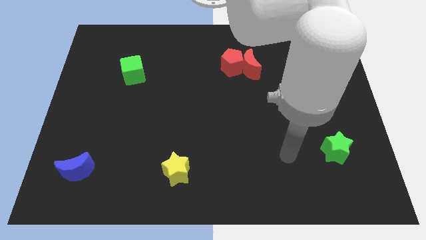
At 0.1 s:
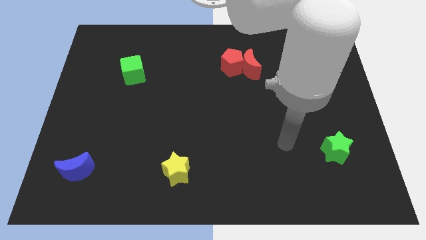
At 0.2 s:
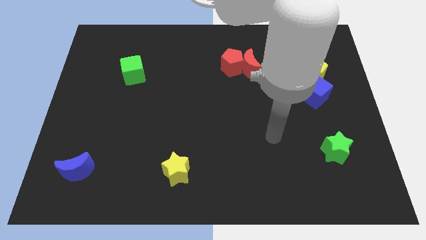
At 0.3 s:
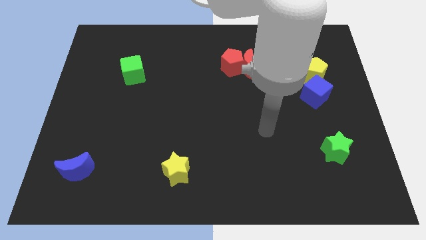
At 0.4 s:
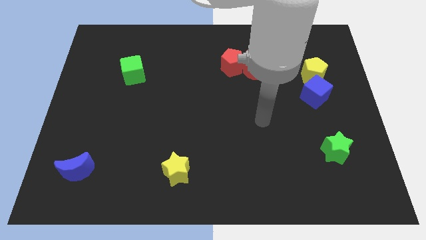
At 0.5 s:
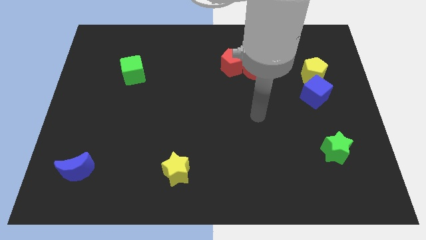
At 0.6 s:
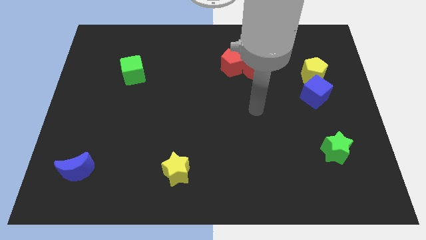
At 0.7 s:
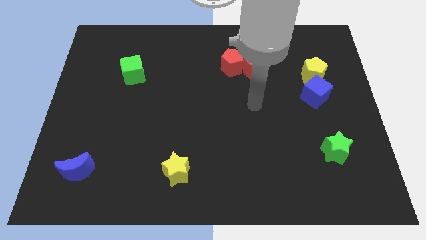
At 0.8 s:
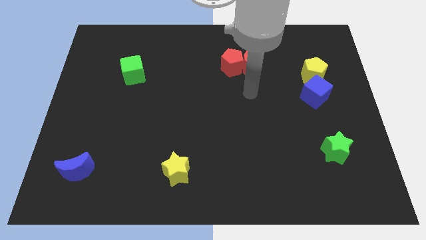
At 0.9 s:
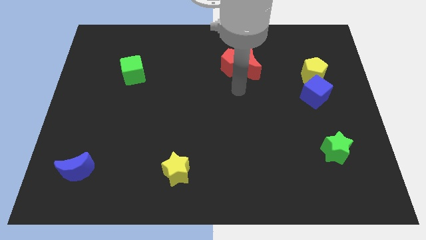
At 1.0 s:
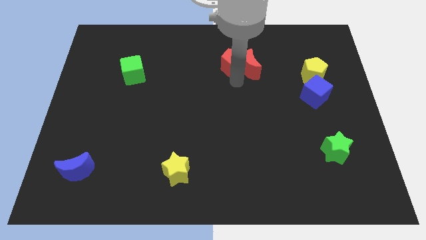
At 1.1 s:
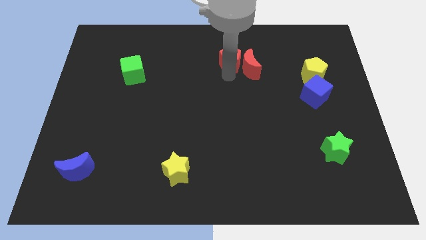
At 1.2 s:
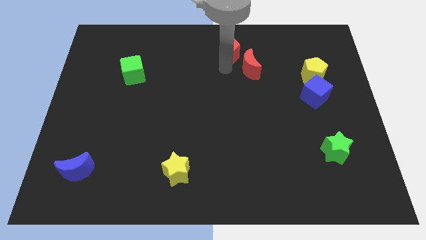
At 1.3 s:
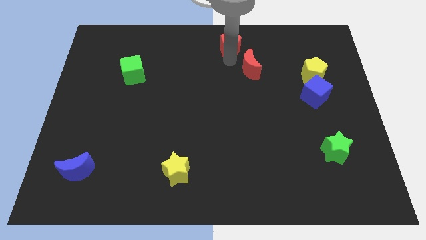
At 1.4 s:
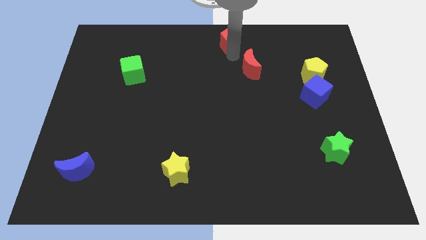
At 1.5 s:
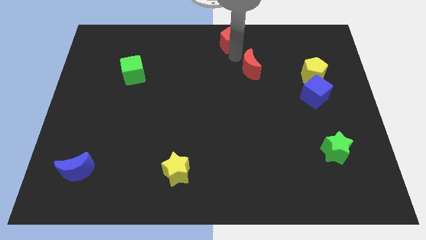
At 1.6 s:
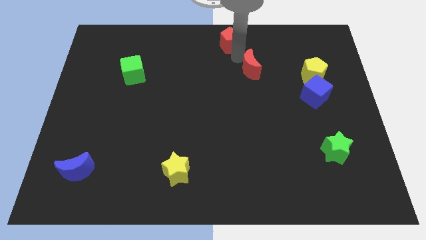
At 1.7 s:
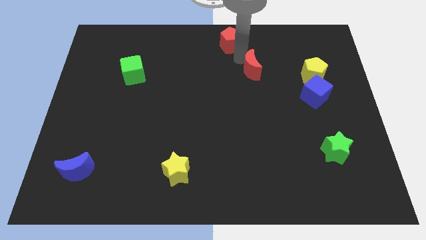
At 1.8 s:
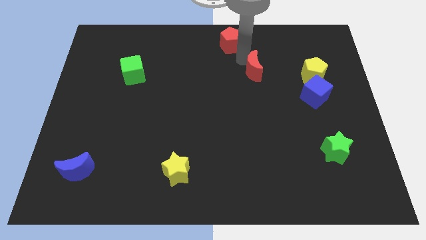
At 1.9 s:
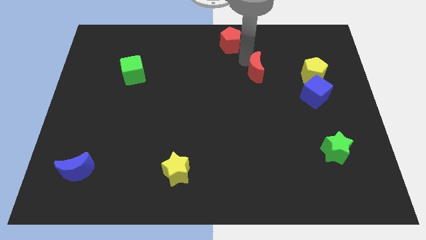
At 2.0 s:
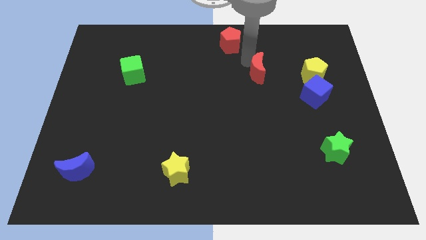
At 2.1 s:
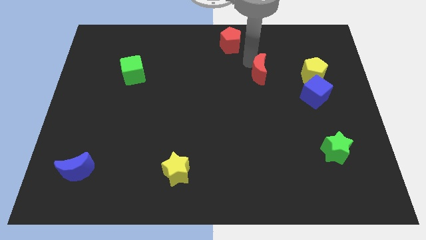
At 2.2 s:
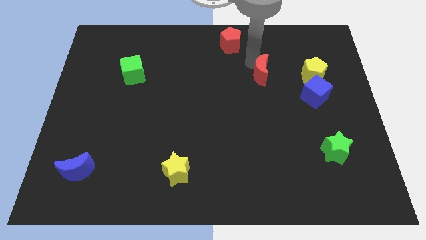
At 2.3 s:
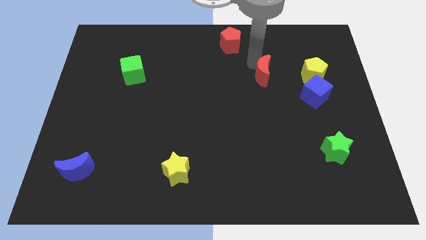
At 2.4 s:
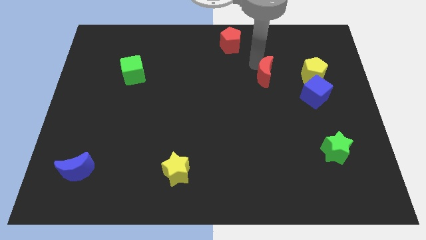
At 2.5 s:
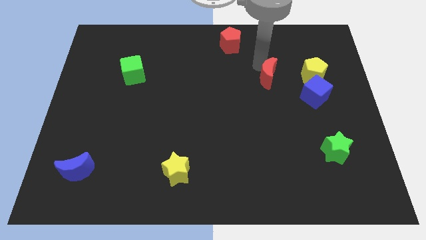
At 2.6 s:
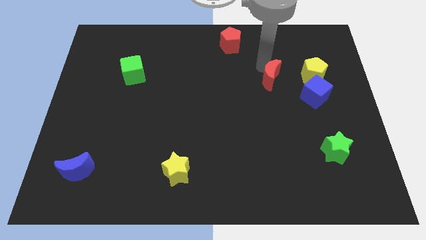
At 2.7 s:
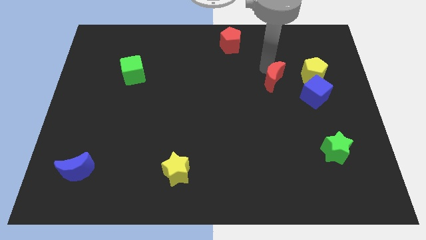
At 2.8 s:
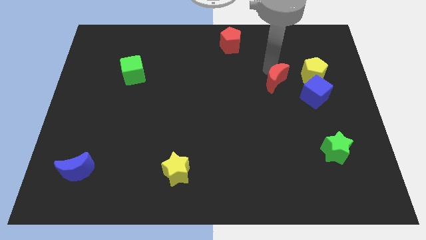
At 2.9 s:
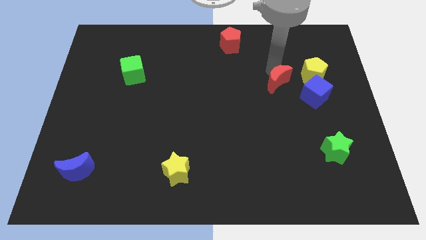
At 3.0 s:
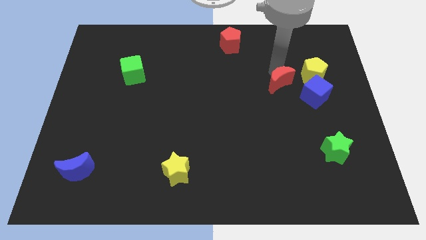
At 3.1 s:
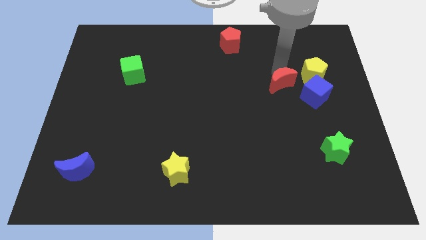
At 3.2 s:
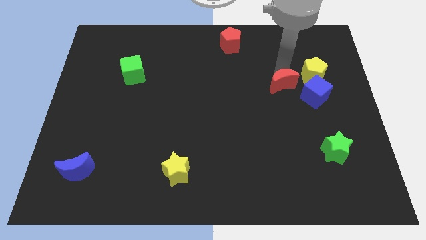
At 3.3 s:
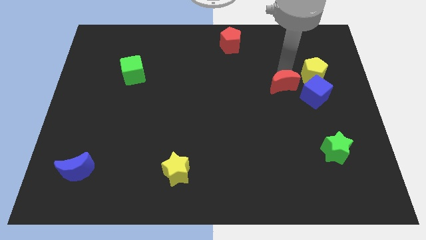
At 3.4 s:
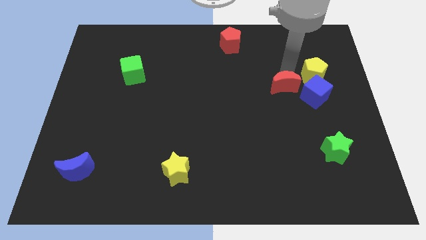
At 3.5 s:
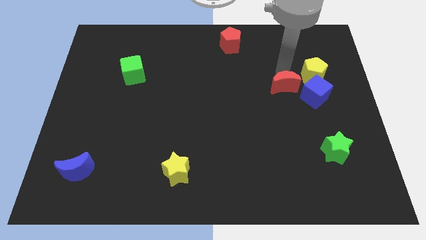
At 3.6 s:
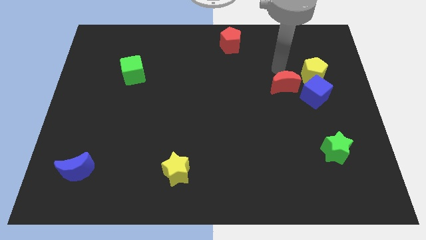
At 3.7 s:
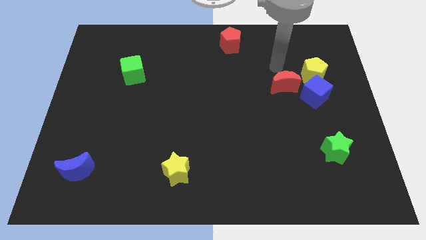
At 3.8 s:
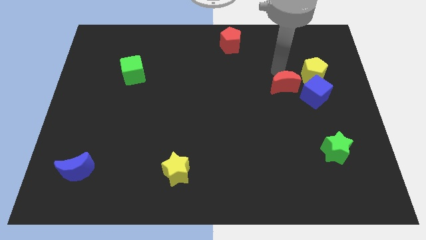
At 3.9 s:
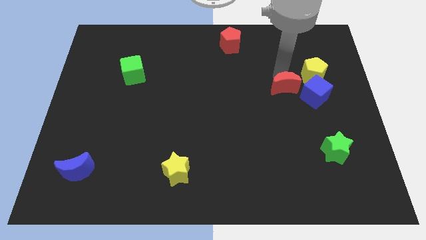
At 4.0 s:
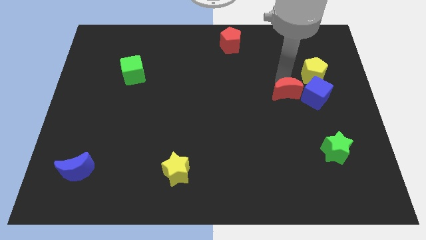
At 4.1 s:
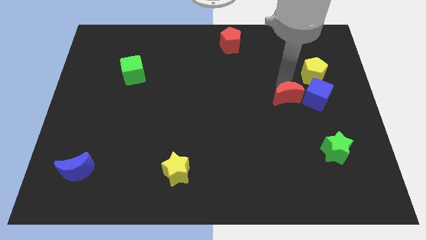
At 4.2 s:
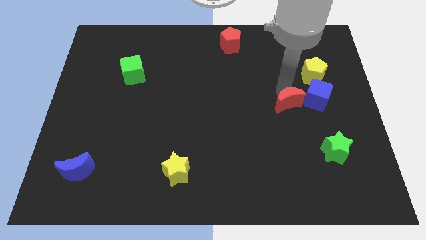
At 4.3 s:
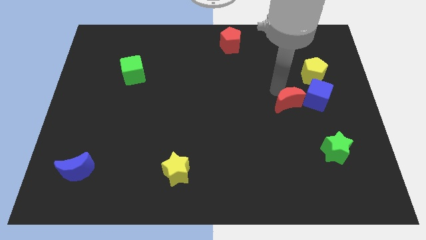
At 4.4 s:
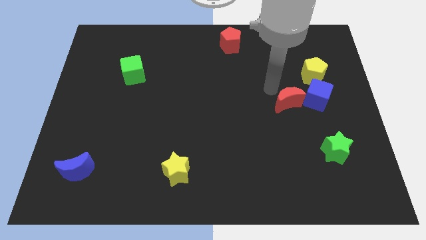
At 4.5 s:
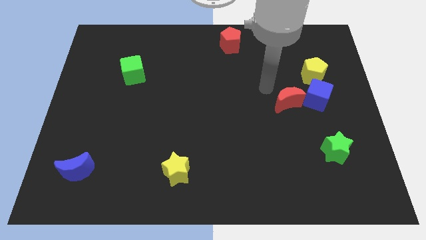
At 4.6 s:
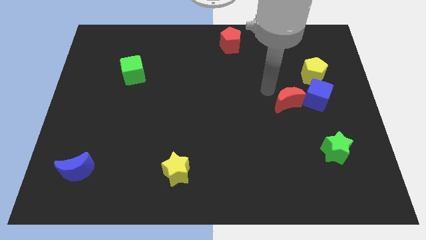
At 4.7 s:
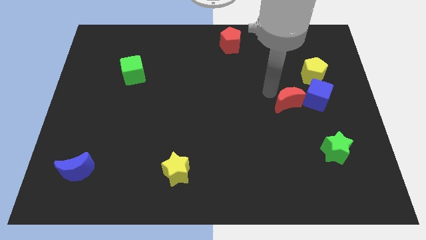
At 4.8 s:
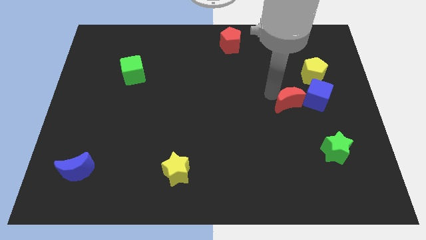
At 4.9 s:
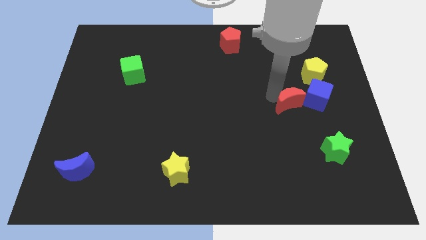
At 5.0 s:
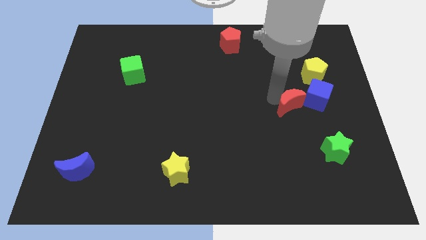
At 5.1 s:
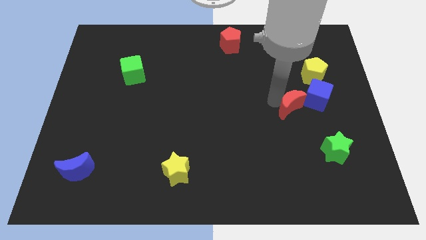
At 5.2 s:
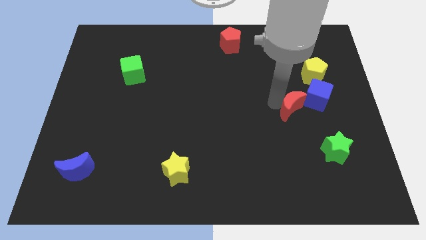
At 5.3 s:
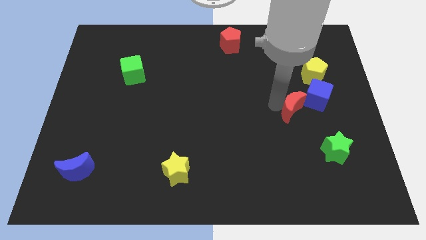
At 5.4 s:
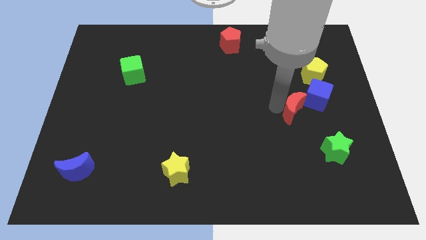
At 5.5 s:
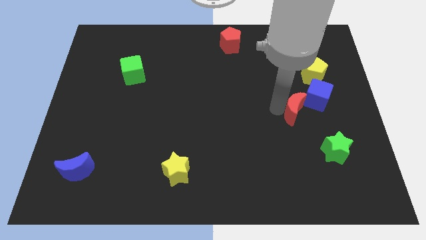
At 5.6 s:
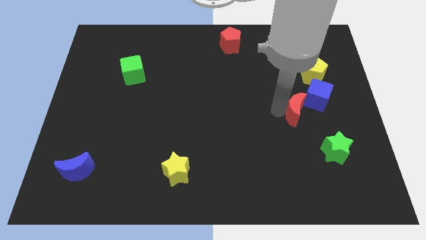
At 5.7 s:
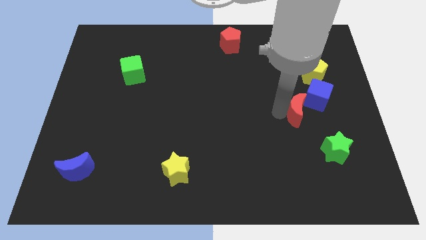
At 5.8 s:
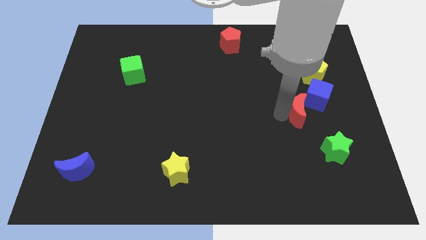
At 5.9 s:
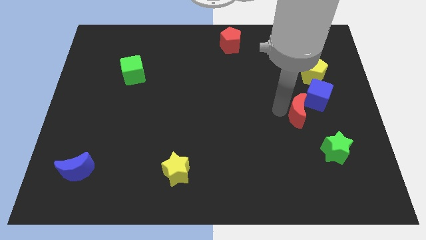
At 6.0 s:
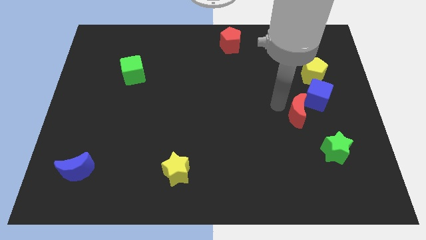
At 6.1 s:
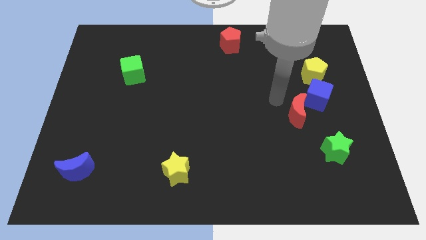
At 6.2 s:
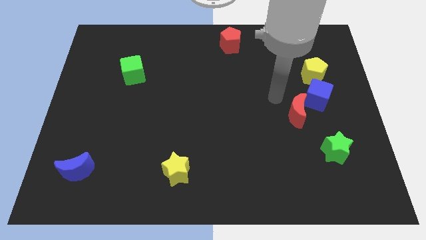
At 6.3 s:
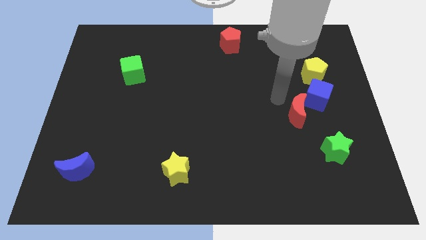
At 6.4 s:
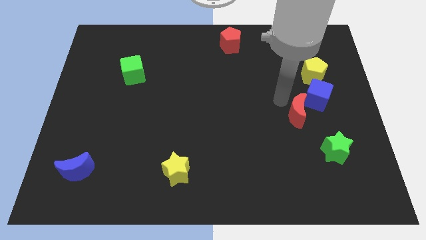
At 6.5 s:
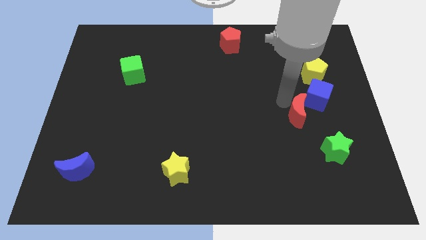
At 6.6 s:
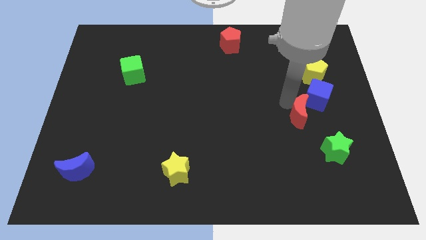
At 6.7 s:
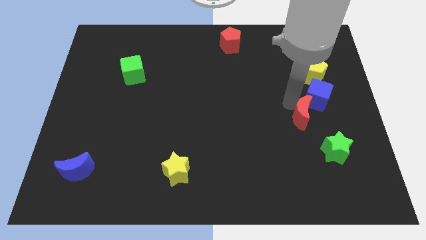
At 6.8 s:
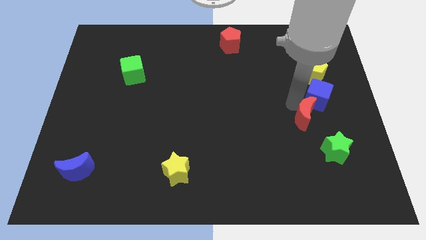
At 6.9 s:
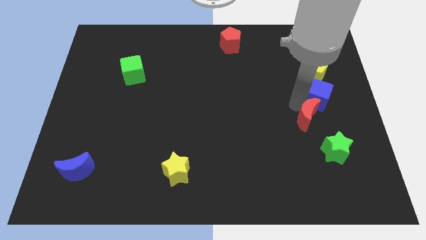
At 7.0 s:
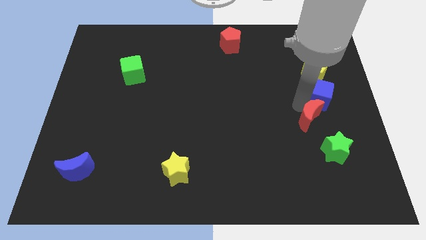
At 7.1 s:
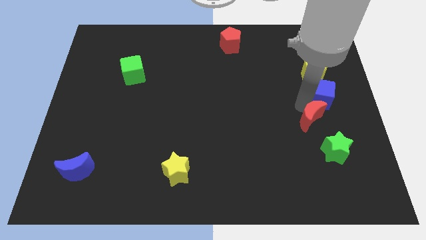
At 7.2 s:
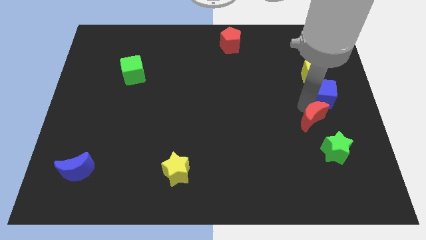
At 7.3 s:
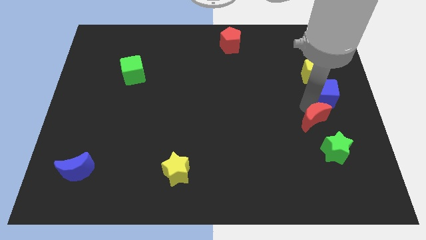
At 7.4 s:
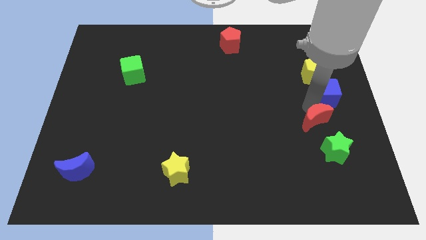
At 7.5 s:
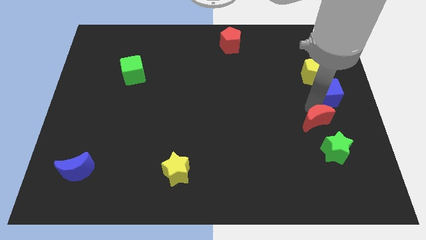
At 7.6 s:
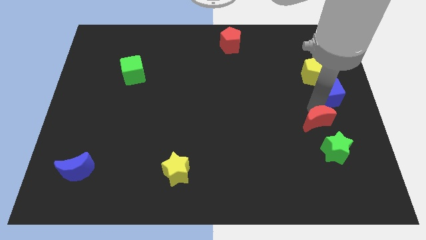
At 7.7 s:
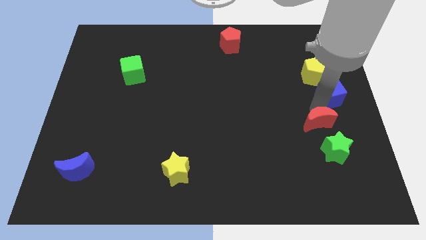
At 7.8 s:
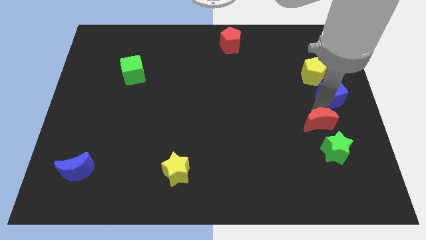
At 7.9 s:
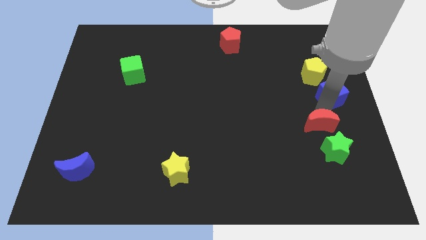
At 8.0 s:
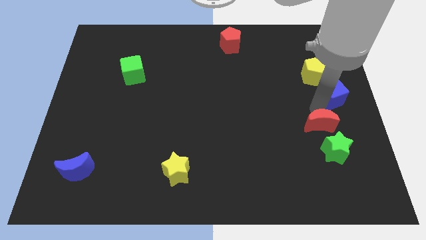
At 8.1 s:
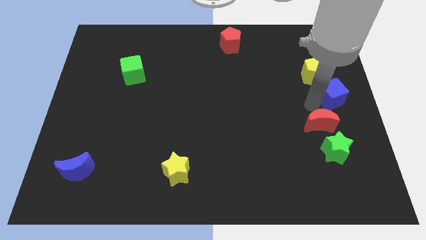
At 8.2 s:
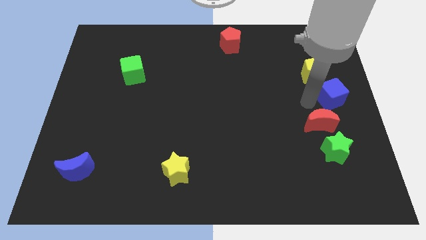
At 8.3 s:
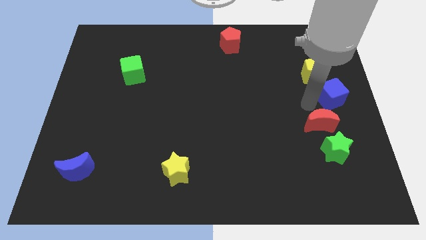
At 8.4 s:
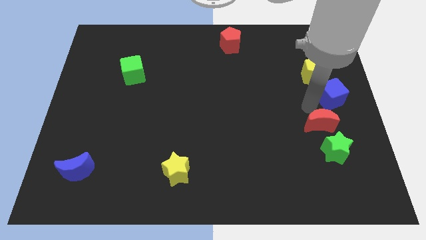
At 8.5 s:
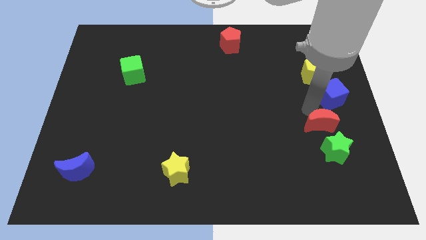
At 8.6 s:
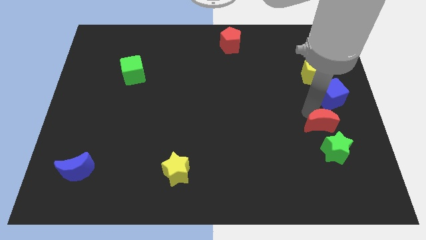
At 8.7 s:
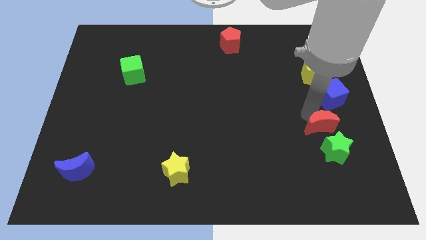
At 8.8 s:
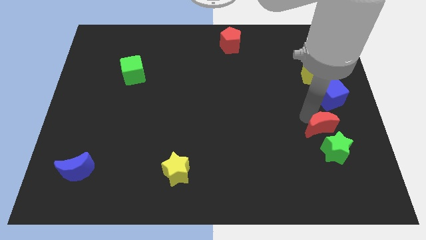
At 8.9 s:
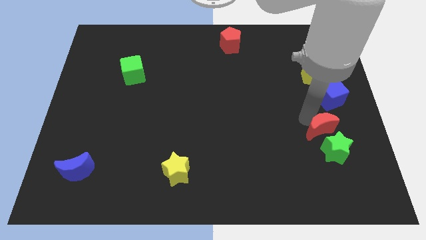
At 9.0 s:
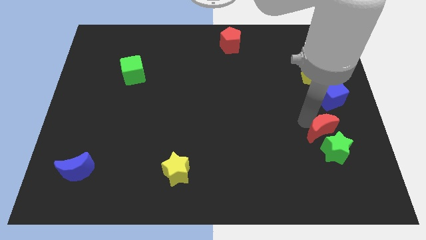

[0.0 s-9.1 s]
push the red moon to the green star
